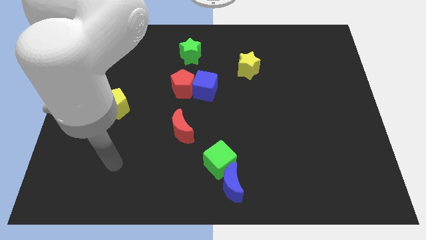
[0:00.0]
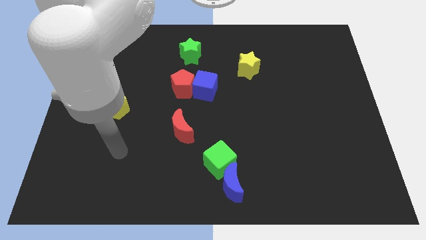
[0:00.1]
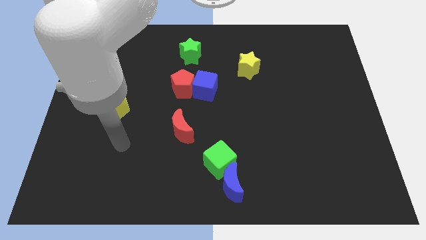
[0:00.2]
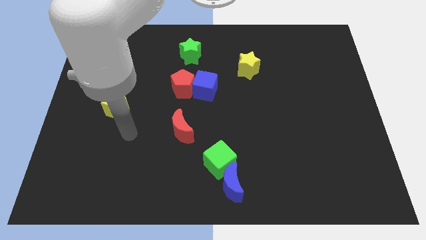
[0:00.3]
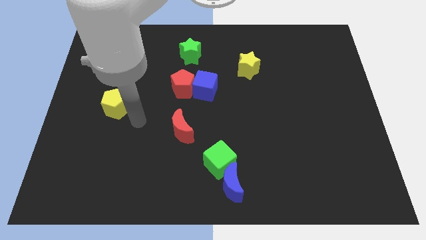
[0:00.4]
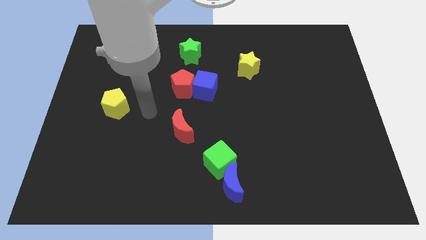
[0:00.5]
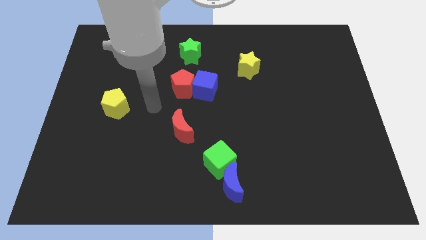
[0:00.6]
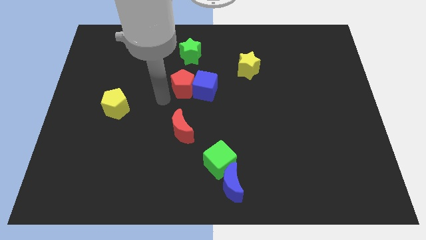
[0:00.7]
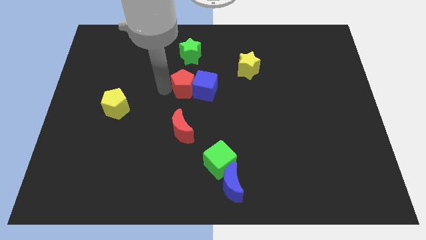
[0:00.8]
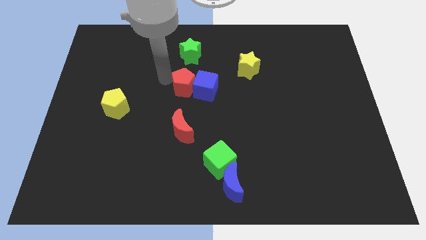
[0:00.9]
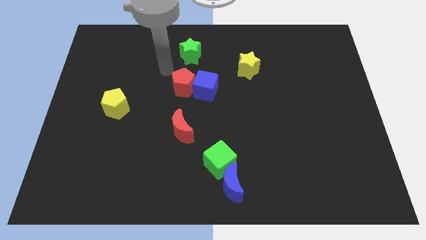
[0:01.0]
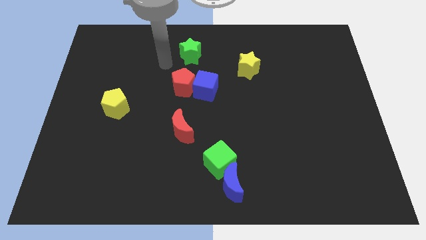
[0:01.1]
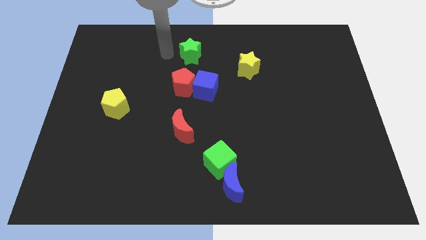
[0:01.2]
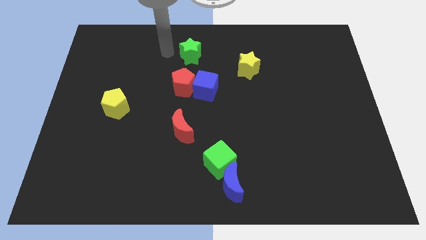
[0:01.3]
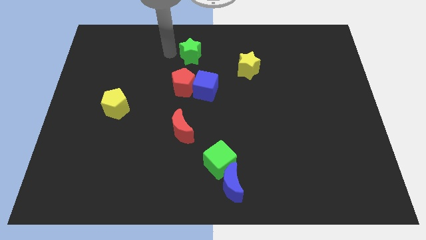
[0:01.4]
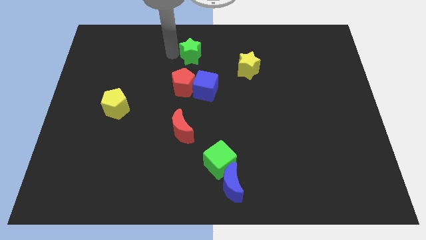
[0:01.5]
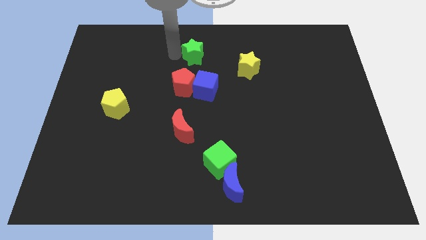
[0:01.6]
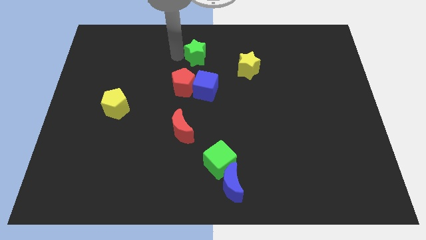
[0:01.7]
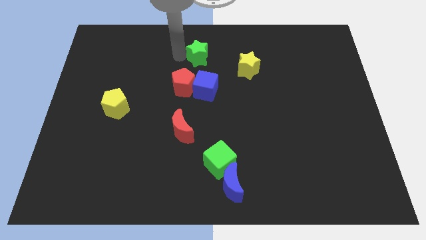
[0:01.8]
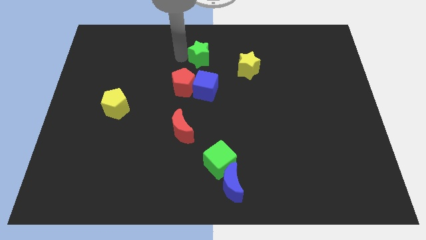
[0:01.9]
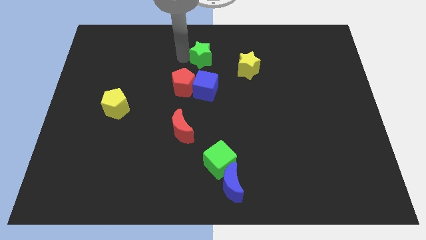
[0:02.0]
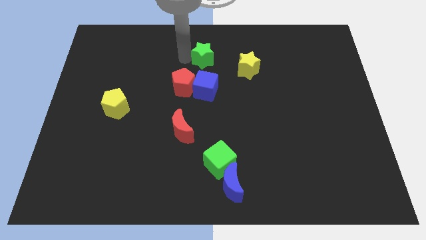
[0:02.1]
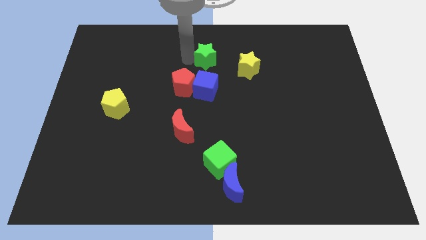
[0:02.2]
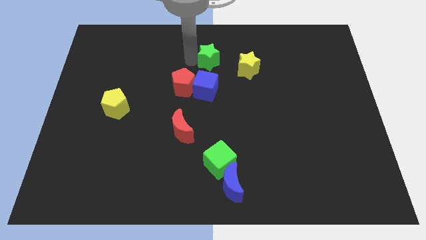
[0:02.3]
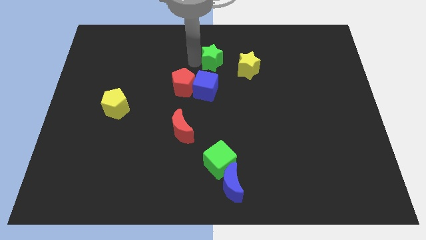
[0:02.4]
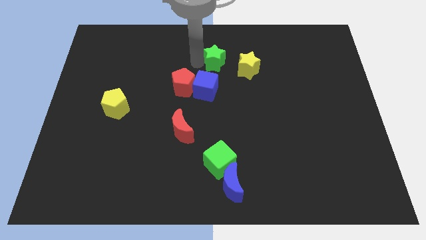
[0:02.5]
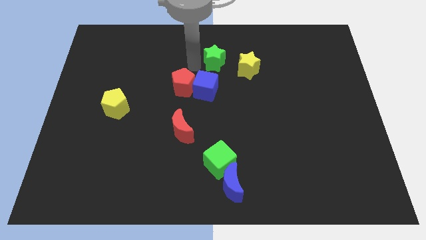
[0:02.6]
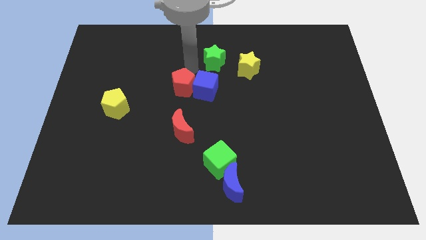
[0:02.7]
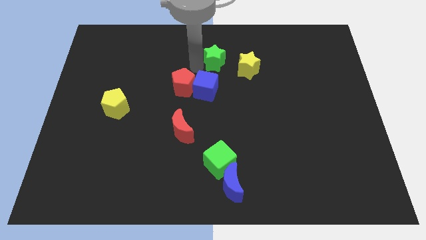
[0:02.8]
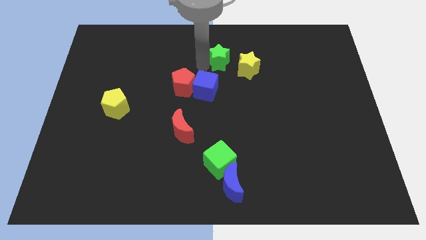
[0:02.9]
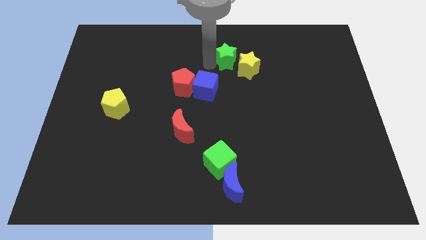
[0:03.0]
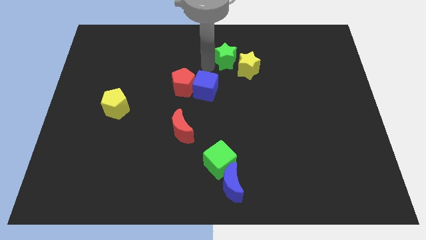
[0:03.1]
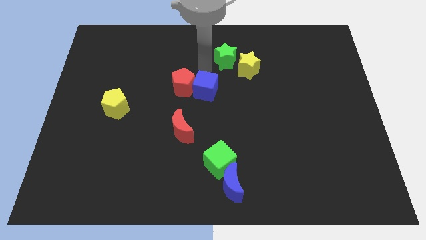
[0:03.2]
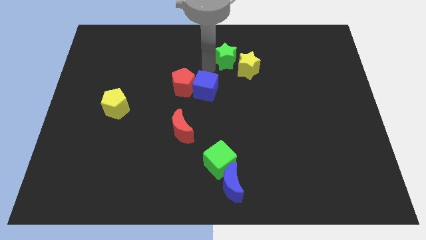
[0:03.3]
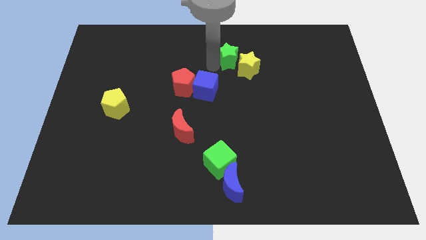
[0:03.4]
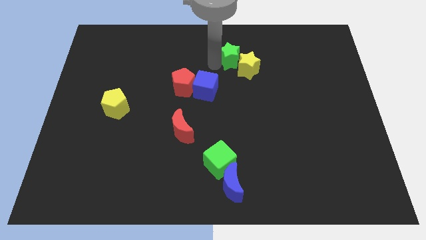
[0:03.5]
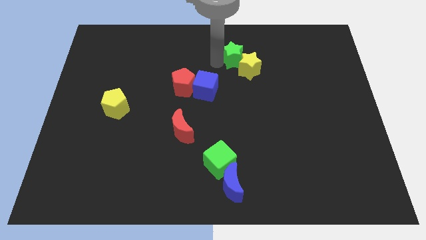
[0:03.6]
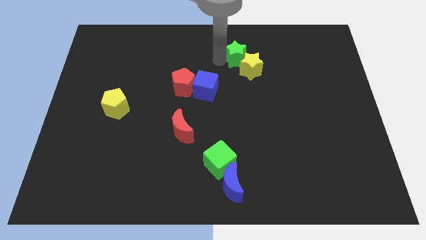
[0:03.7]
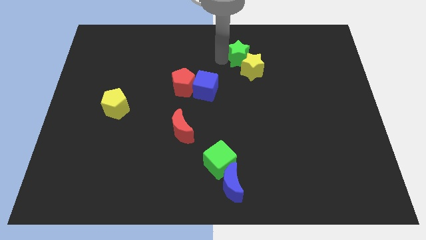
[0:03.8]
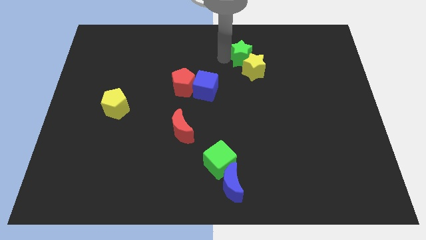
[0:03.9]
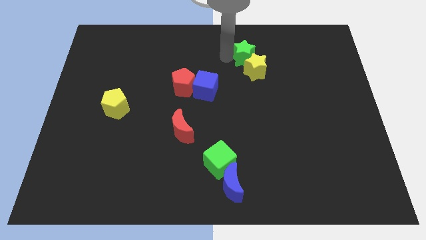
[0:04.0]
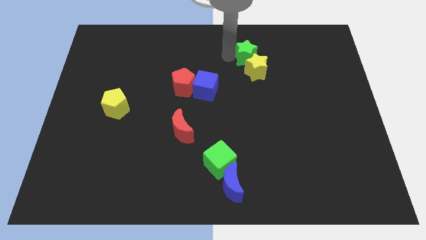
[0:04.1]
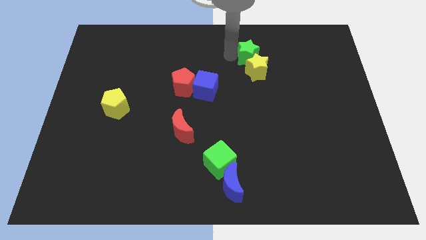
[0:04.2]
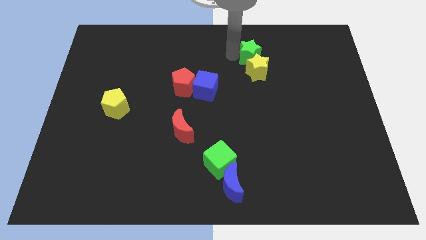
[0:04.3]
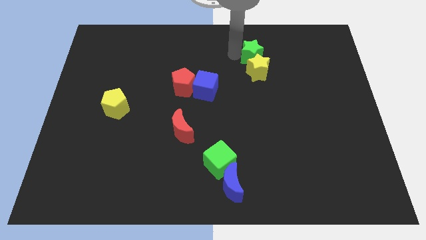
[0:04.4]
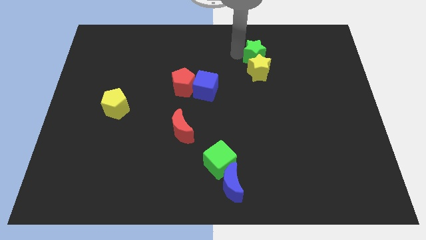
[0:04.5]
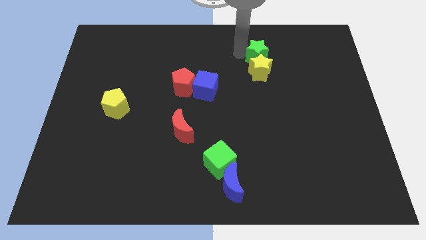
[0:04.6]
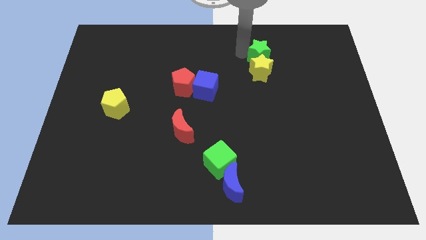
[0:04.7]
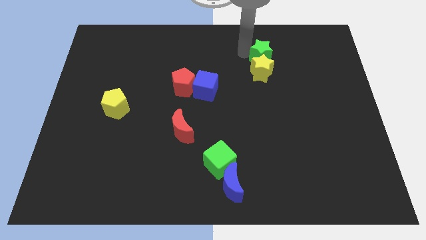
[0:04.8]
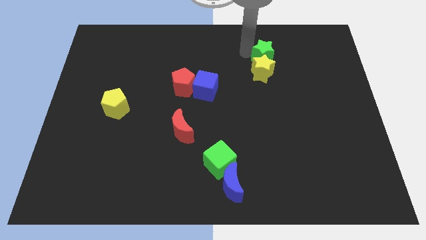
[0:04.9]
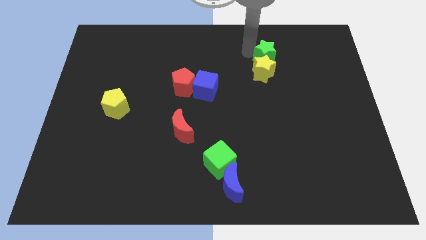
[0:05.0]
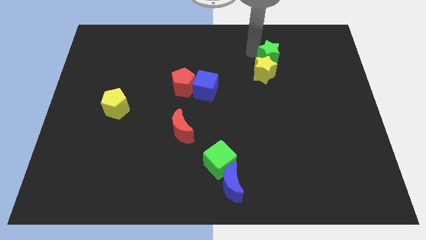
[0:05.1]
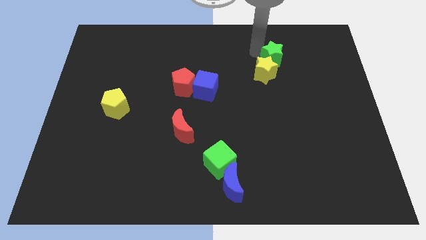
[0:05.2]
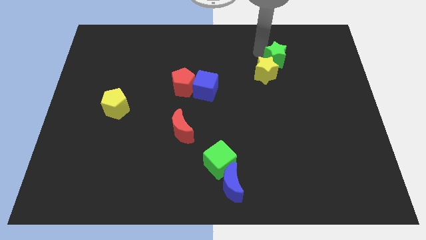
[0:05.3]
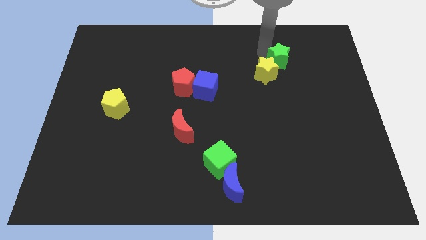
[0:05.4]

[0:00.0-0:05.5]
put the green star right of the yellow star
